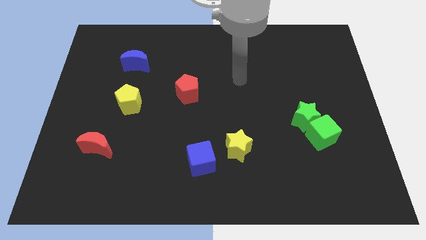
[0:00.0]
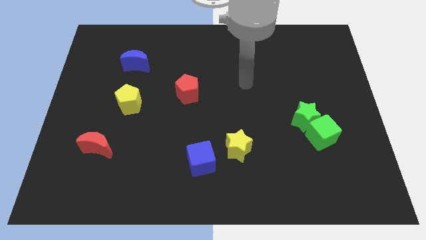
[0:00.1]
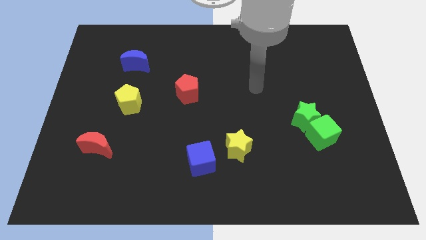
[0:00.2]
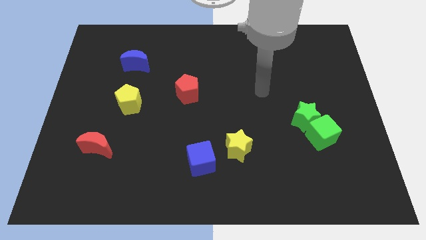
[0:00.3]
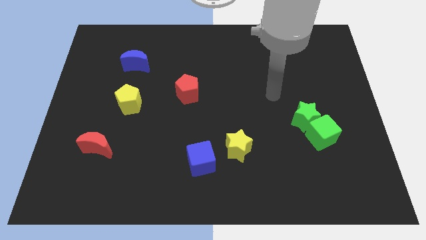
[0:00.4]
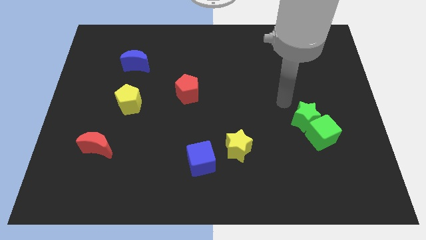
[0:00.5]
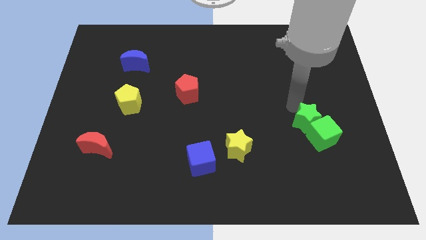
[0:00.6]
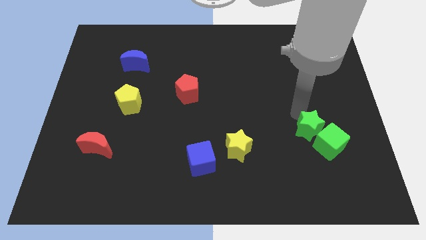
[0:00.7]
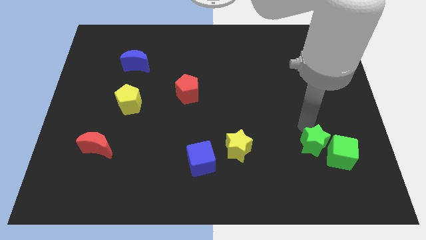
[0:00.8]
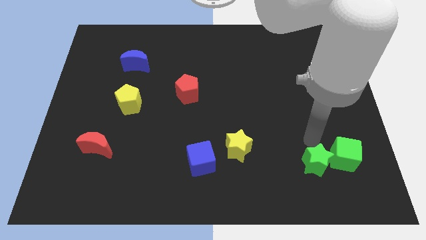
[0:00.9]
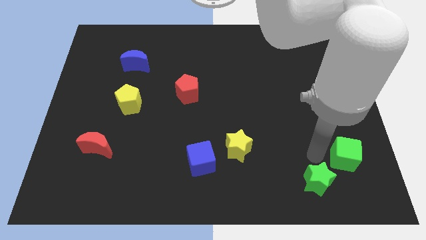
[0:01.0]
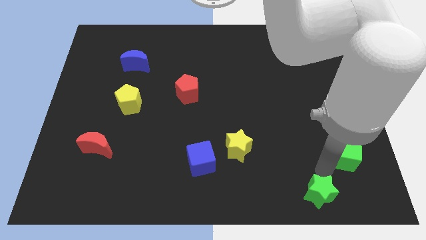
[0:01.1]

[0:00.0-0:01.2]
pull the green cube apart from the green star

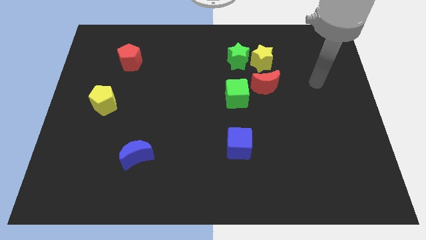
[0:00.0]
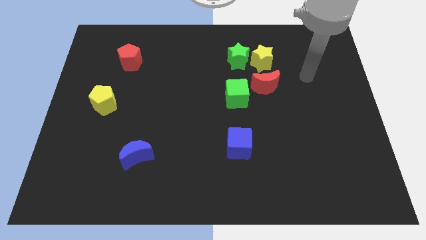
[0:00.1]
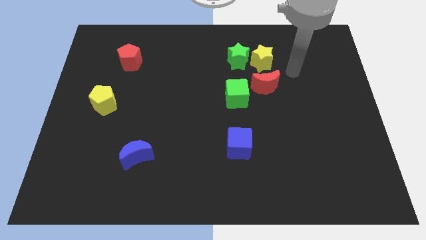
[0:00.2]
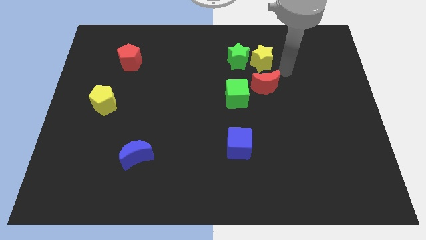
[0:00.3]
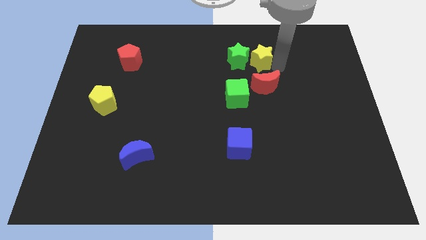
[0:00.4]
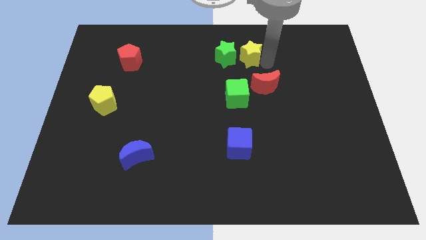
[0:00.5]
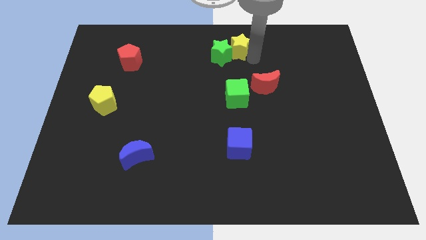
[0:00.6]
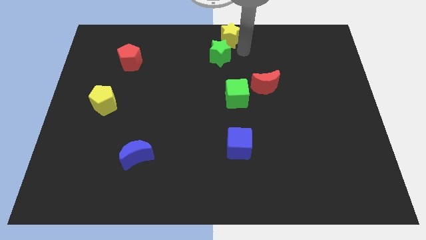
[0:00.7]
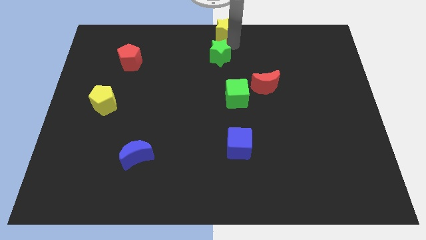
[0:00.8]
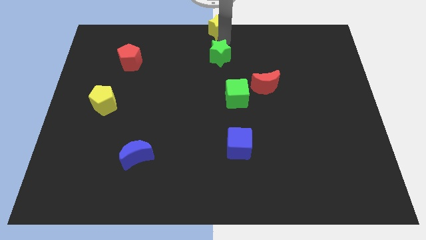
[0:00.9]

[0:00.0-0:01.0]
pull the green star apart from the yellow star

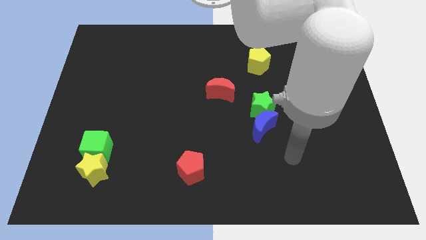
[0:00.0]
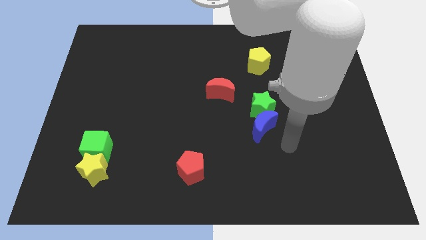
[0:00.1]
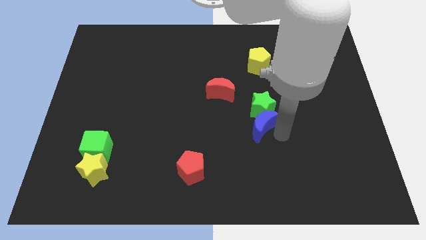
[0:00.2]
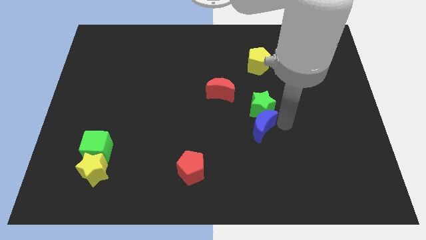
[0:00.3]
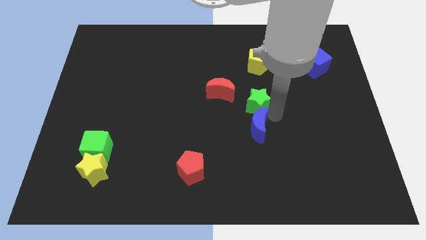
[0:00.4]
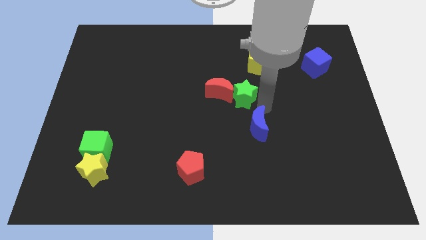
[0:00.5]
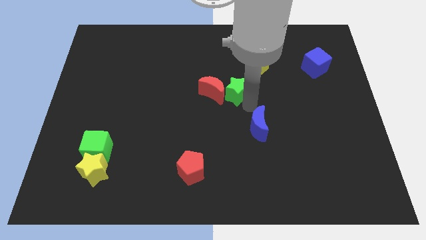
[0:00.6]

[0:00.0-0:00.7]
separate the blue moon from the green star

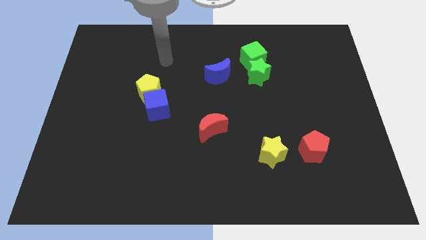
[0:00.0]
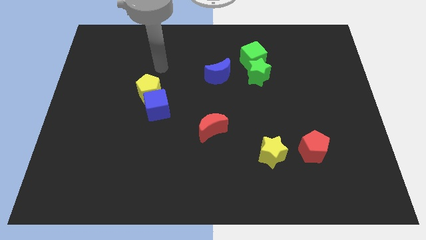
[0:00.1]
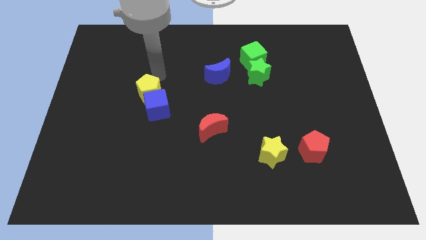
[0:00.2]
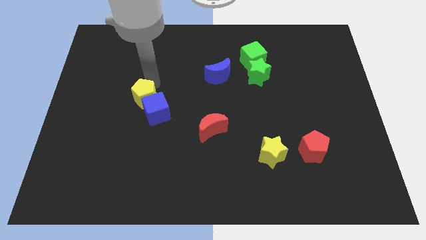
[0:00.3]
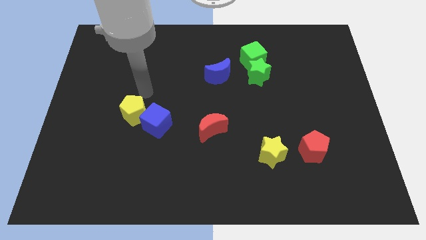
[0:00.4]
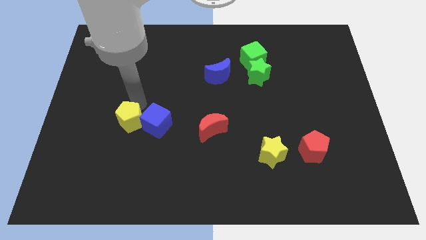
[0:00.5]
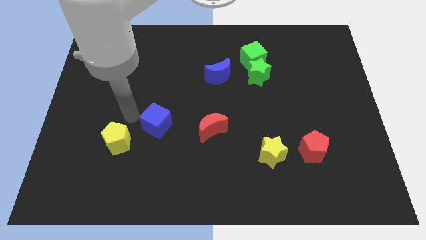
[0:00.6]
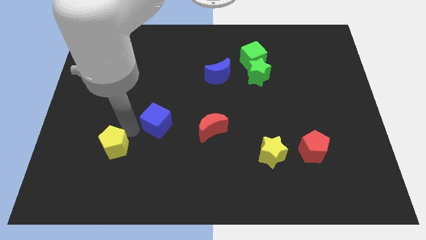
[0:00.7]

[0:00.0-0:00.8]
move the blue cube away from the yellow pentagon

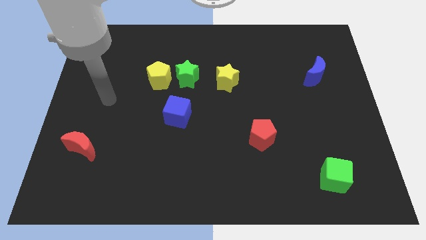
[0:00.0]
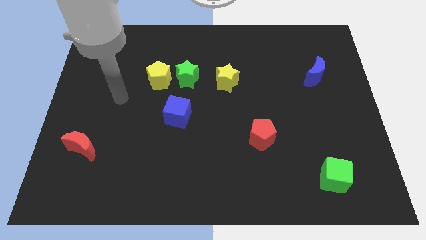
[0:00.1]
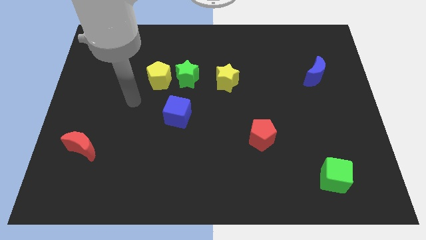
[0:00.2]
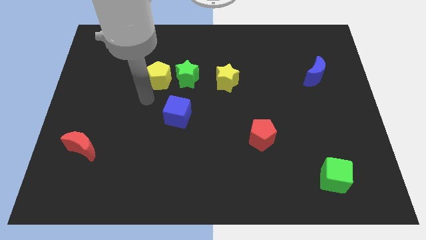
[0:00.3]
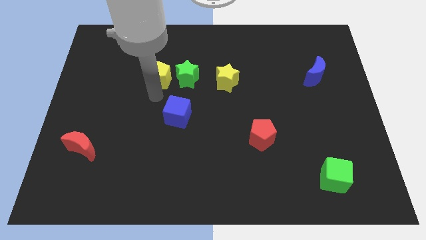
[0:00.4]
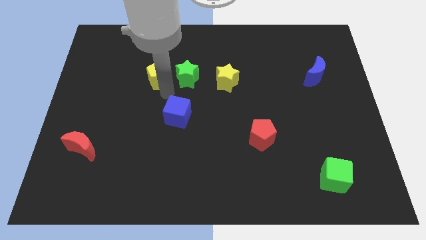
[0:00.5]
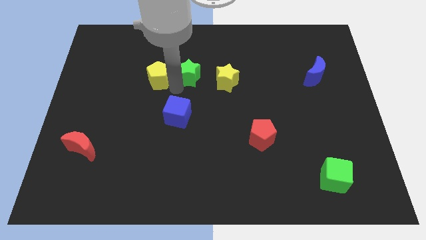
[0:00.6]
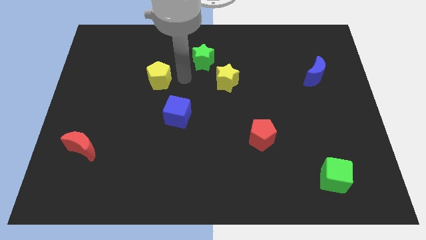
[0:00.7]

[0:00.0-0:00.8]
pull the yellow pentagon apart from the green star

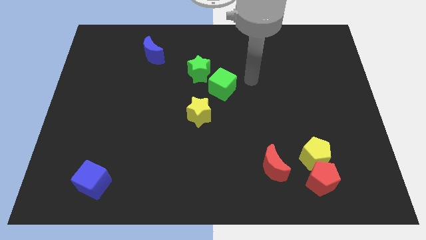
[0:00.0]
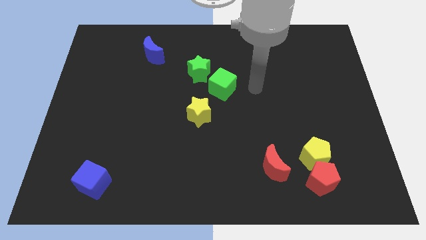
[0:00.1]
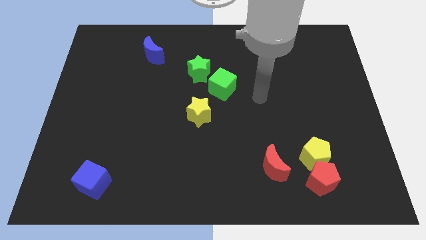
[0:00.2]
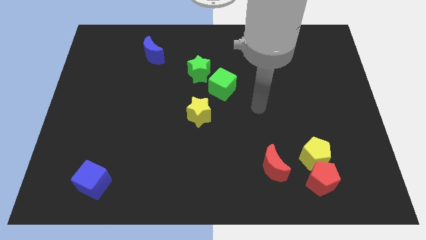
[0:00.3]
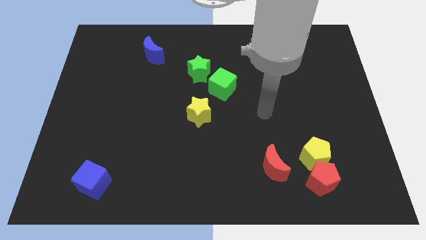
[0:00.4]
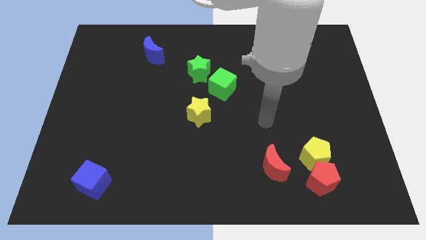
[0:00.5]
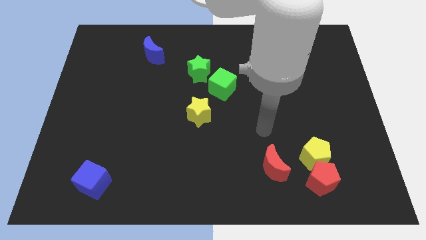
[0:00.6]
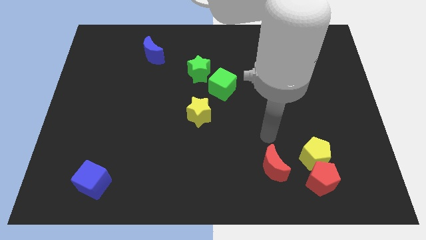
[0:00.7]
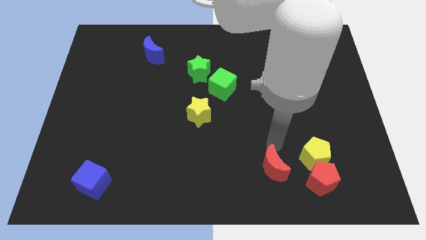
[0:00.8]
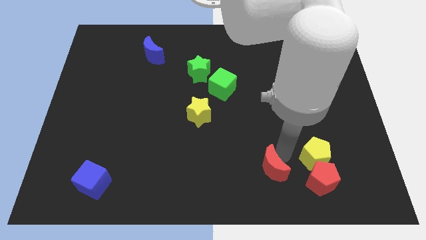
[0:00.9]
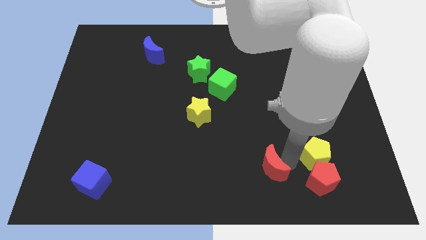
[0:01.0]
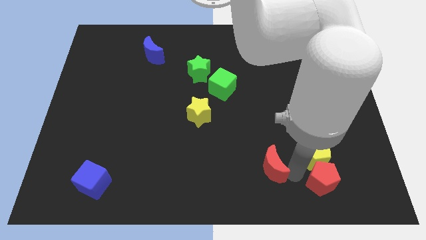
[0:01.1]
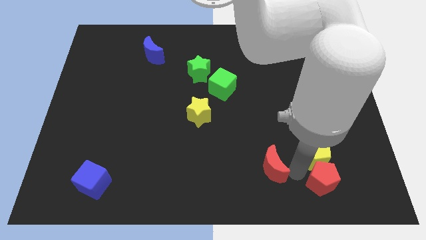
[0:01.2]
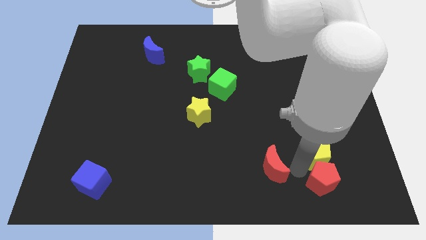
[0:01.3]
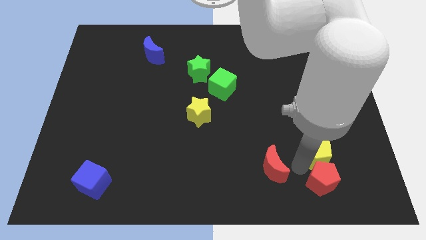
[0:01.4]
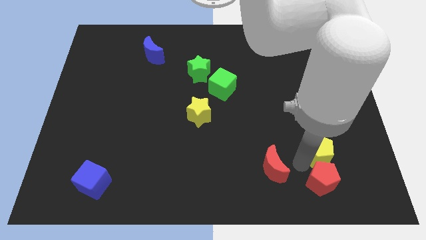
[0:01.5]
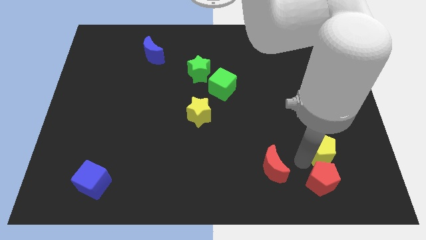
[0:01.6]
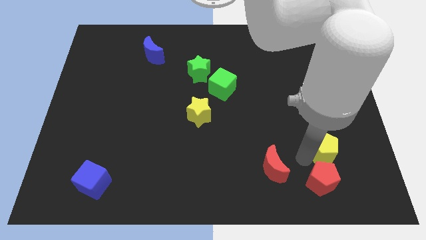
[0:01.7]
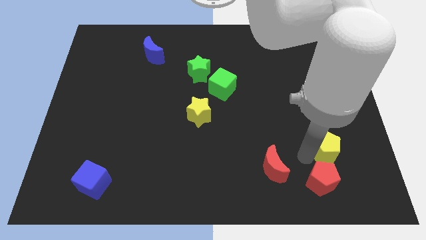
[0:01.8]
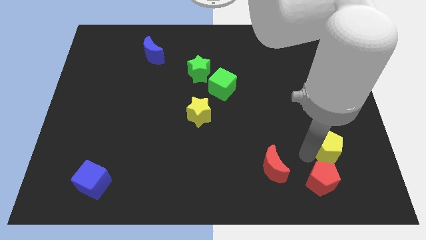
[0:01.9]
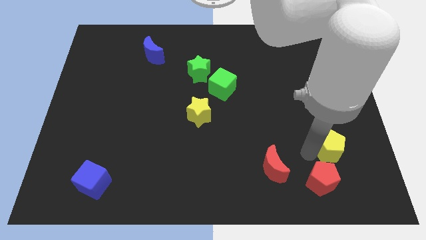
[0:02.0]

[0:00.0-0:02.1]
separate the yellow pentagon from the red pentagon and red moon

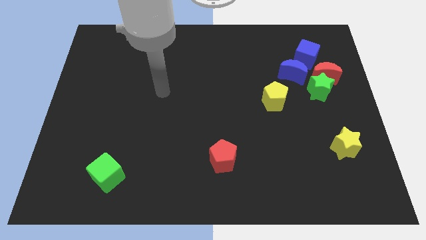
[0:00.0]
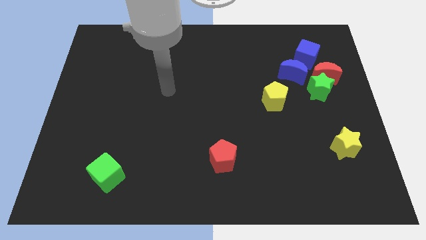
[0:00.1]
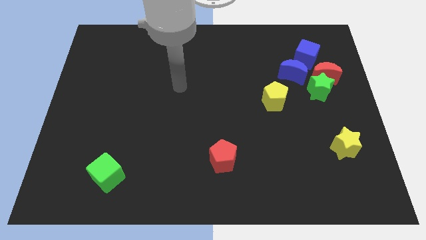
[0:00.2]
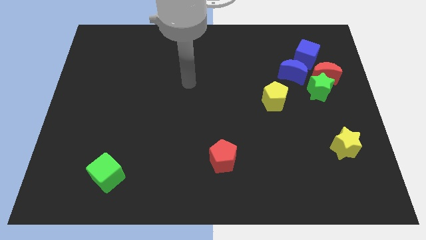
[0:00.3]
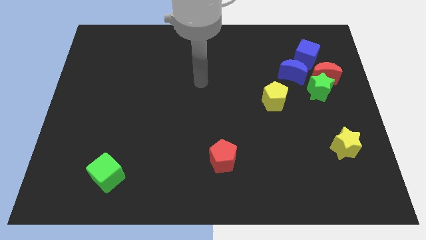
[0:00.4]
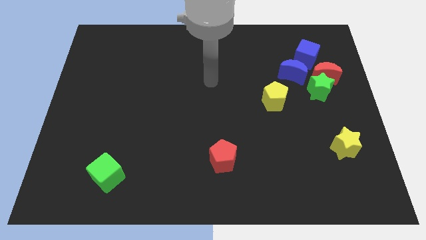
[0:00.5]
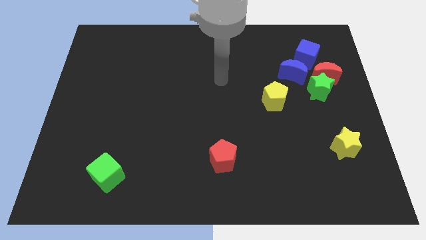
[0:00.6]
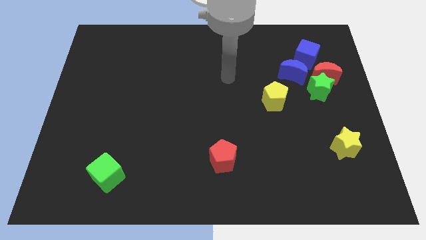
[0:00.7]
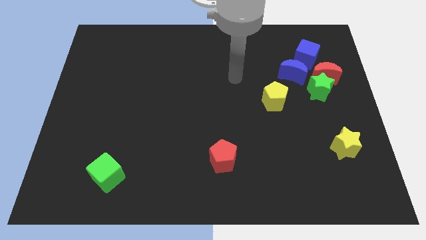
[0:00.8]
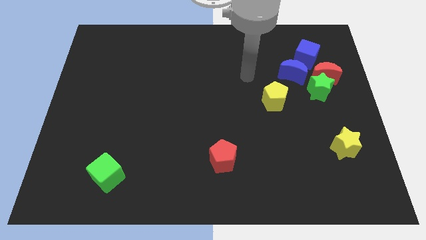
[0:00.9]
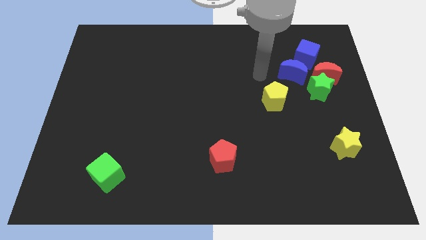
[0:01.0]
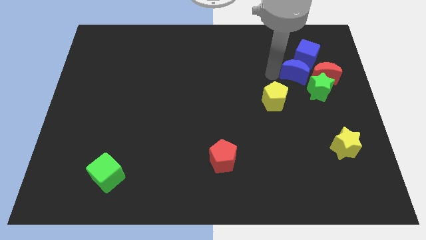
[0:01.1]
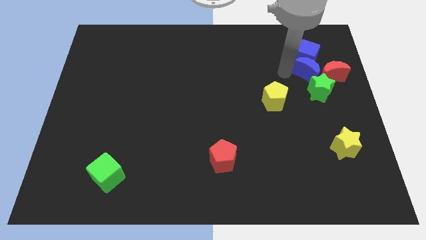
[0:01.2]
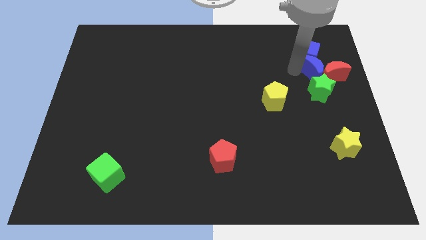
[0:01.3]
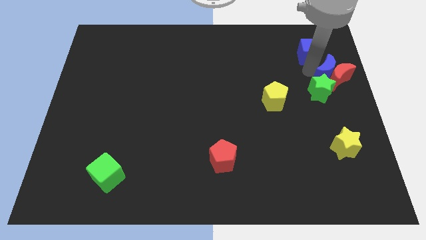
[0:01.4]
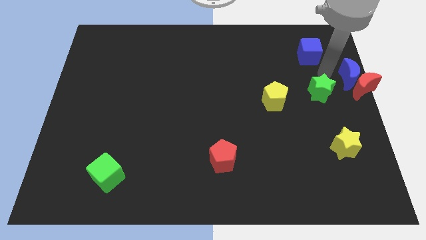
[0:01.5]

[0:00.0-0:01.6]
pull the green star apart from the red moon and blue moon

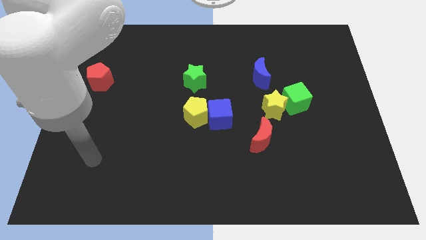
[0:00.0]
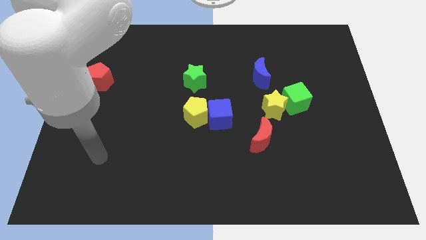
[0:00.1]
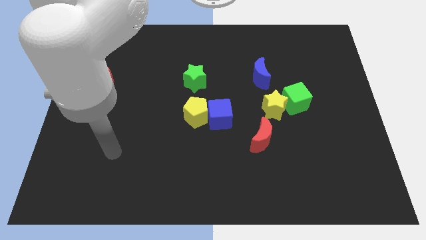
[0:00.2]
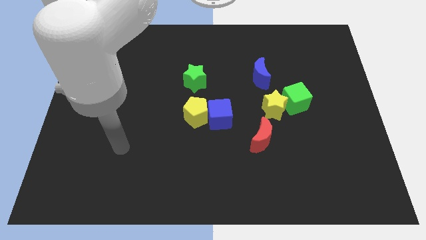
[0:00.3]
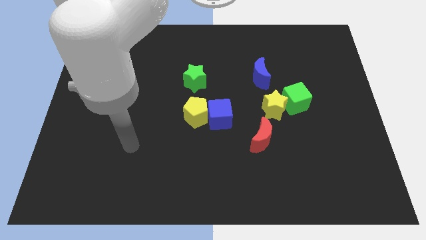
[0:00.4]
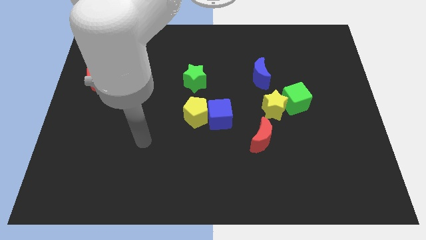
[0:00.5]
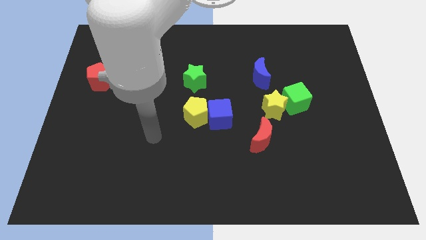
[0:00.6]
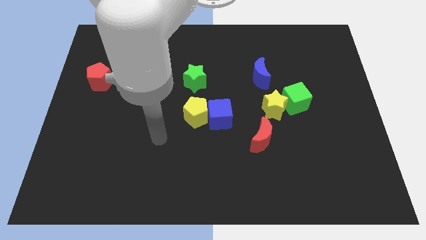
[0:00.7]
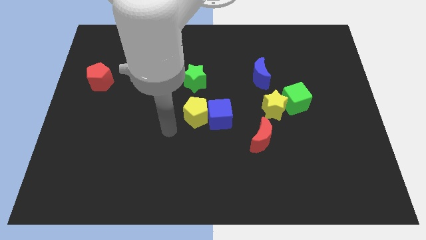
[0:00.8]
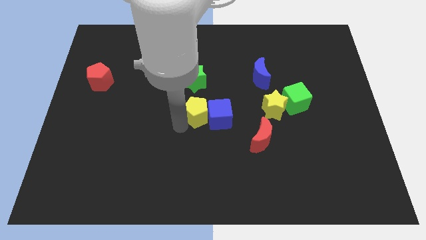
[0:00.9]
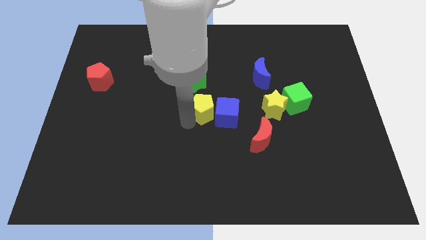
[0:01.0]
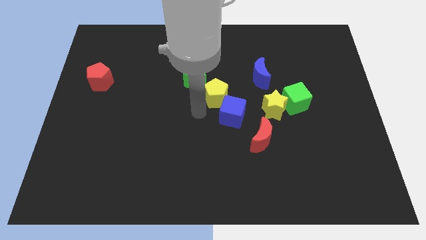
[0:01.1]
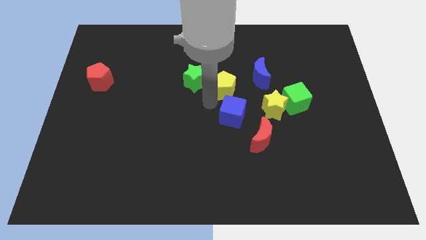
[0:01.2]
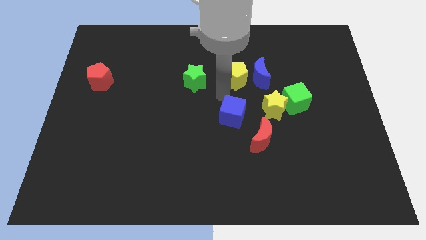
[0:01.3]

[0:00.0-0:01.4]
pull the blue cube apart from the yellow pentagon
